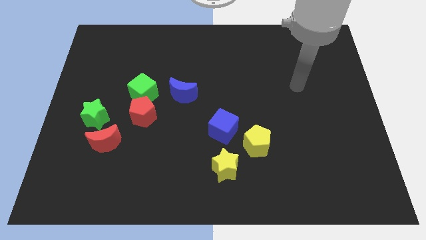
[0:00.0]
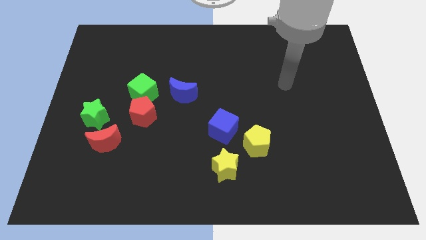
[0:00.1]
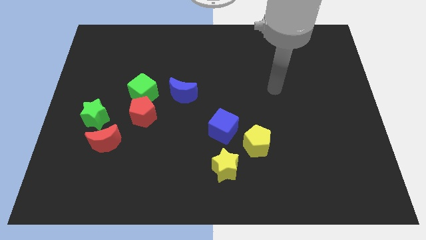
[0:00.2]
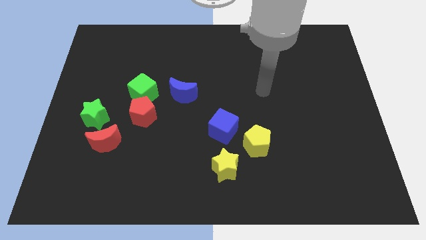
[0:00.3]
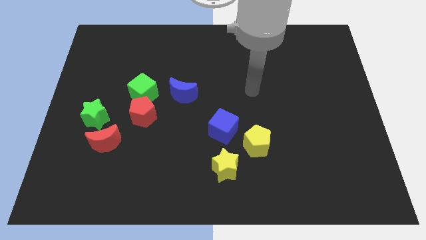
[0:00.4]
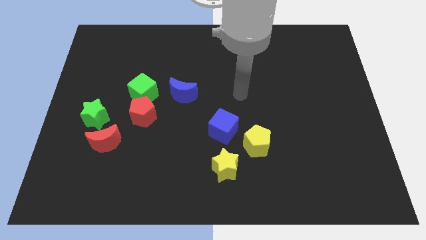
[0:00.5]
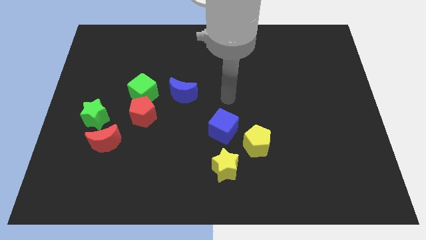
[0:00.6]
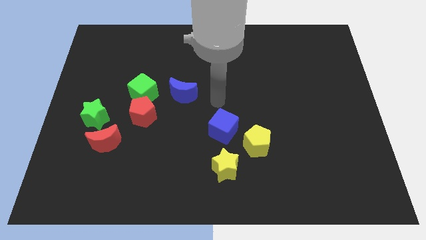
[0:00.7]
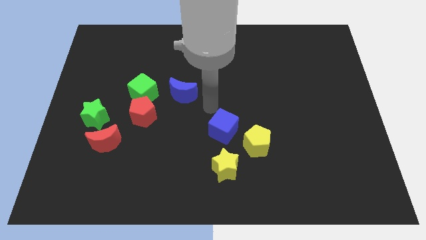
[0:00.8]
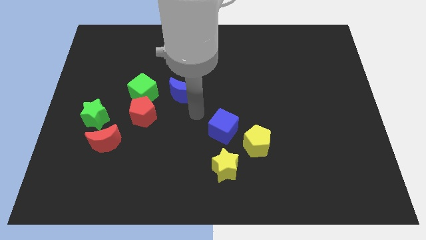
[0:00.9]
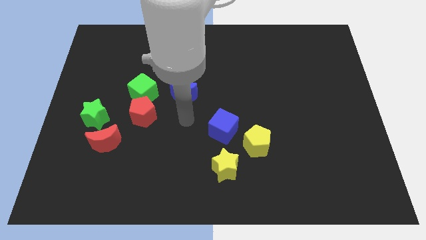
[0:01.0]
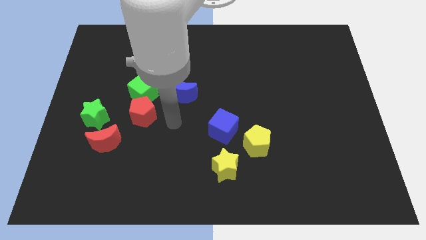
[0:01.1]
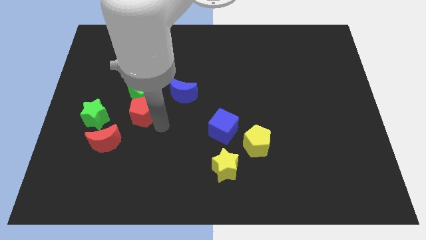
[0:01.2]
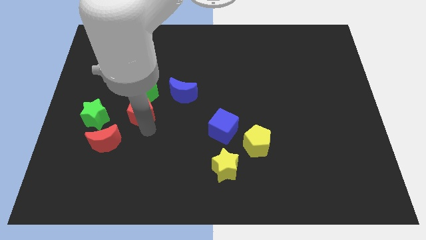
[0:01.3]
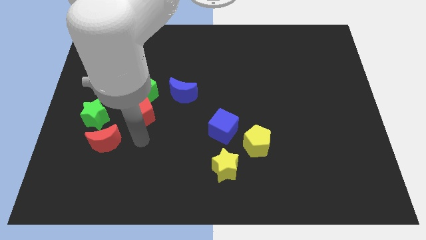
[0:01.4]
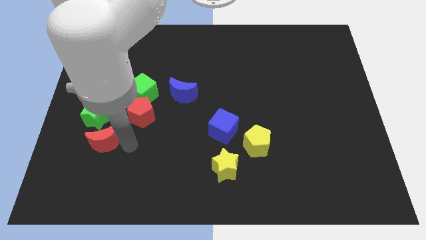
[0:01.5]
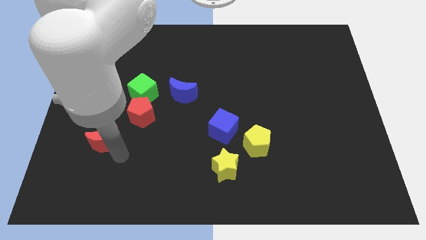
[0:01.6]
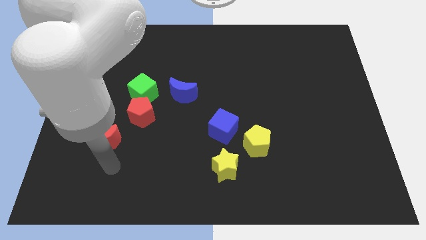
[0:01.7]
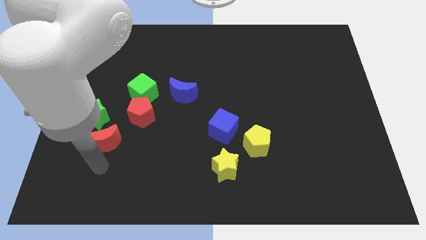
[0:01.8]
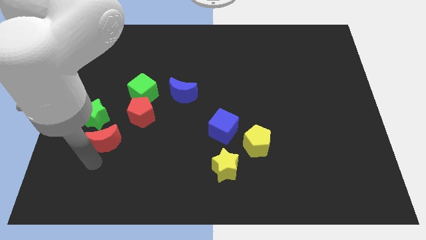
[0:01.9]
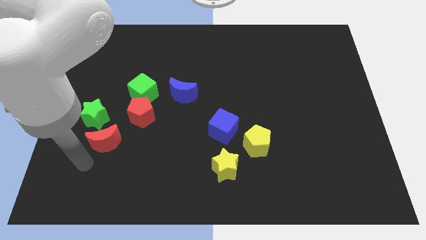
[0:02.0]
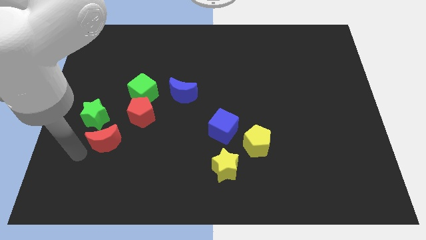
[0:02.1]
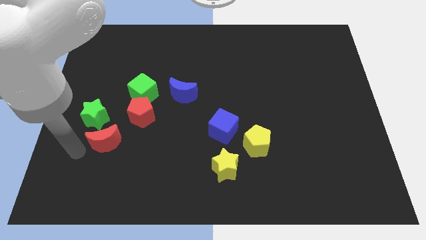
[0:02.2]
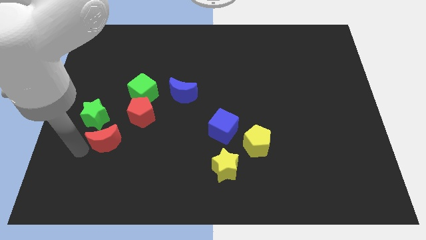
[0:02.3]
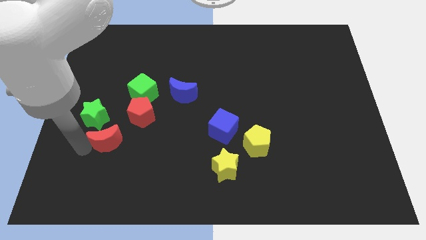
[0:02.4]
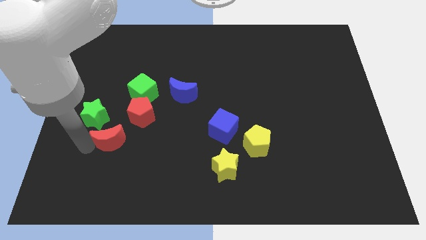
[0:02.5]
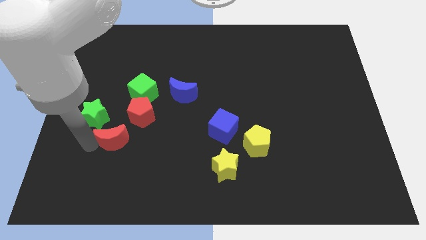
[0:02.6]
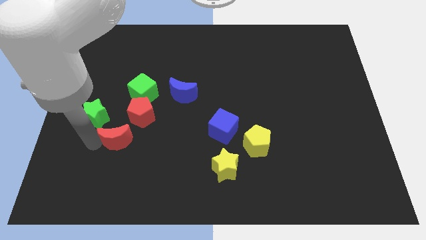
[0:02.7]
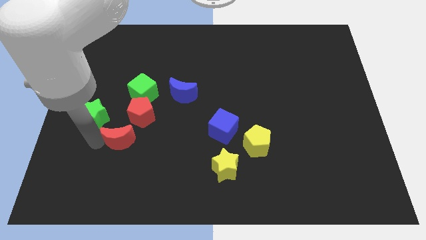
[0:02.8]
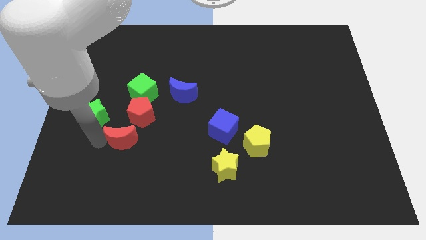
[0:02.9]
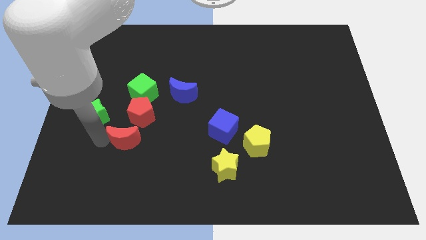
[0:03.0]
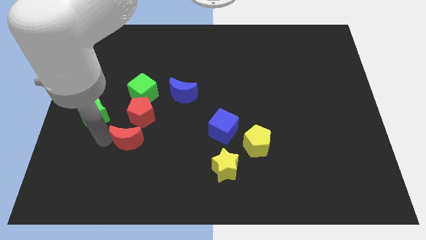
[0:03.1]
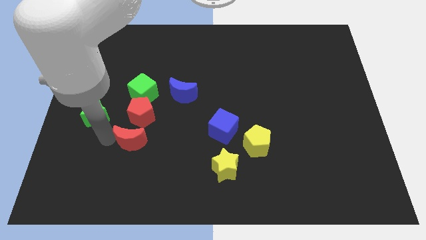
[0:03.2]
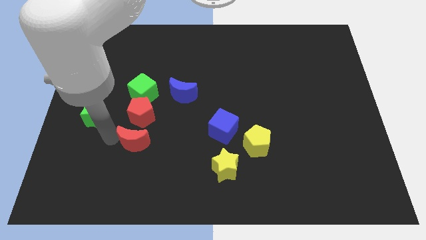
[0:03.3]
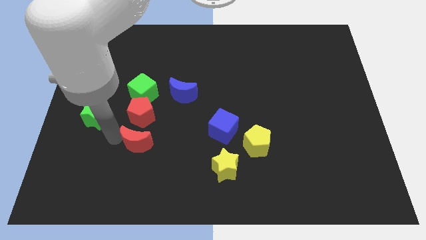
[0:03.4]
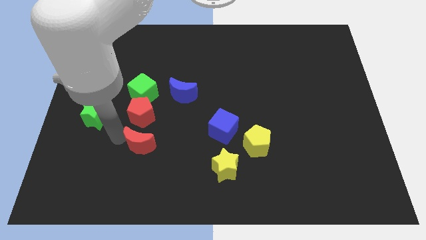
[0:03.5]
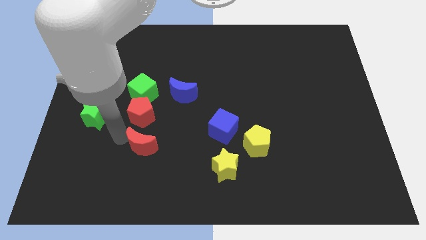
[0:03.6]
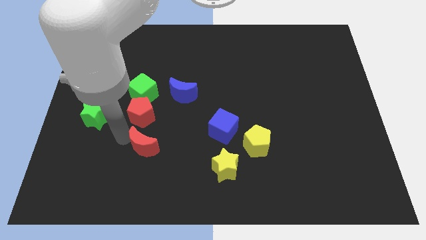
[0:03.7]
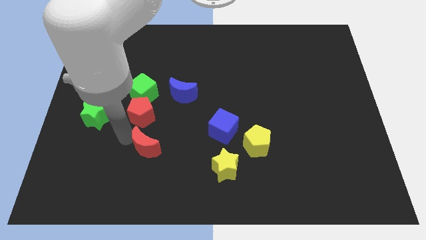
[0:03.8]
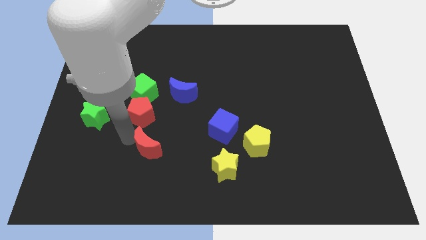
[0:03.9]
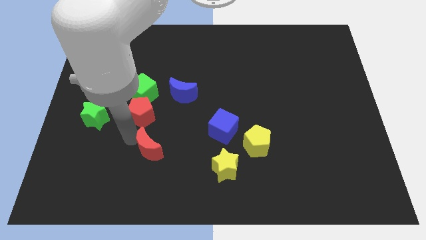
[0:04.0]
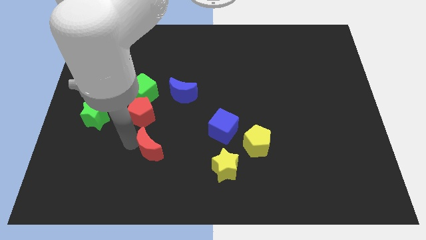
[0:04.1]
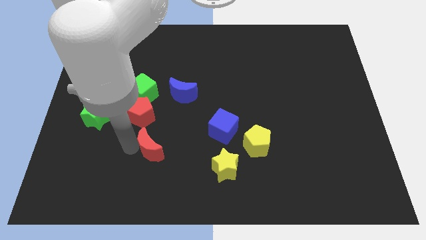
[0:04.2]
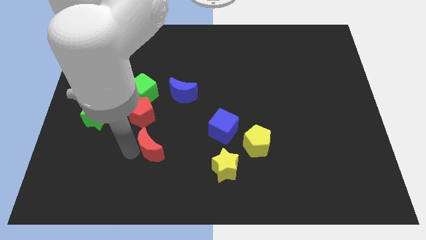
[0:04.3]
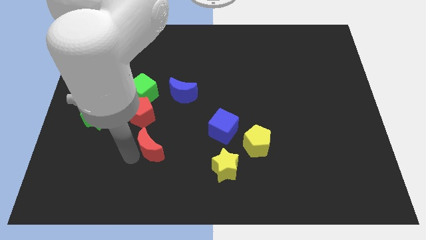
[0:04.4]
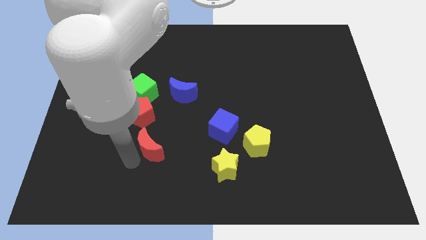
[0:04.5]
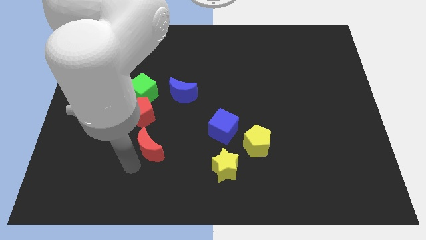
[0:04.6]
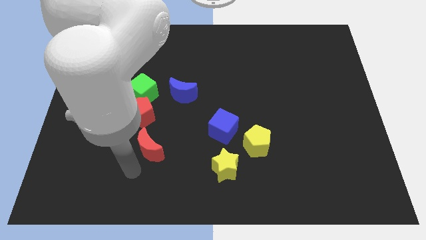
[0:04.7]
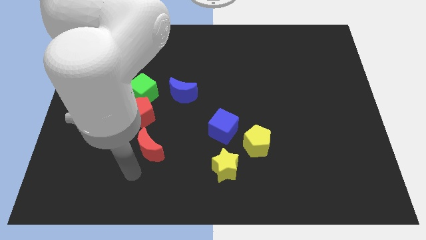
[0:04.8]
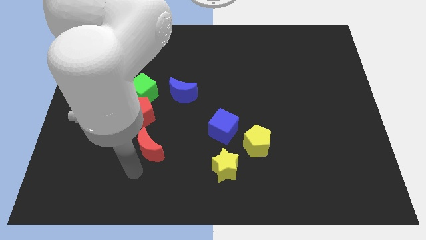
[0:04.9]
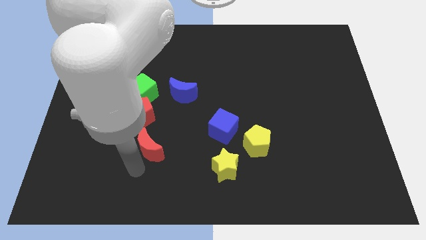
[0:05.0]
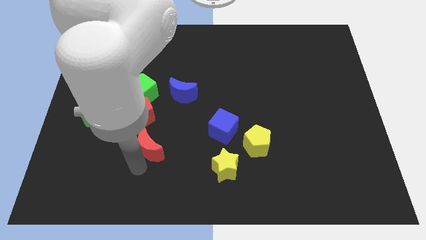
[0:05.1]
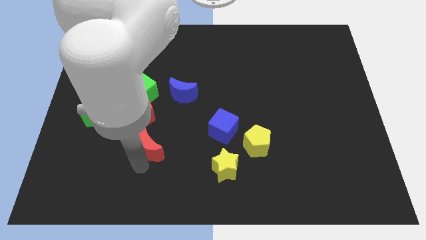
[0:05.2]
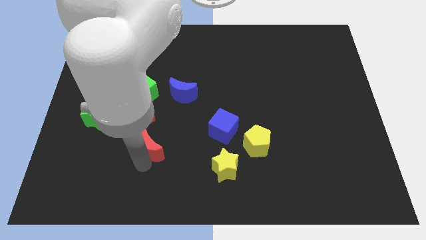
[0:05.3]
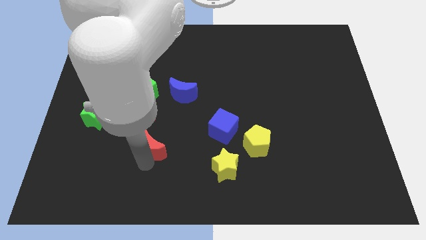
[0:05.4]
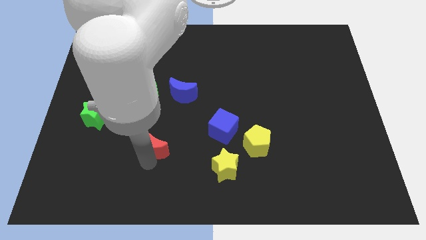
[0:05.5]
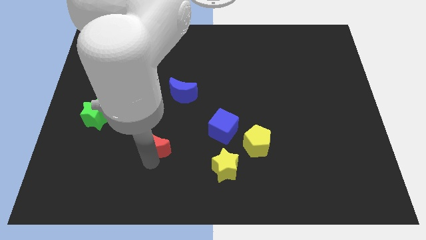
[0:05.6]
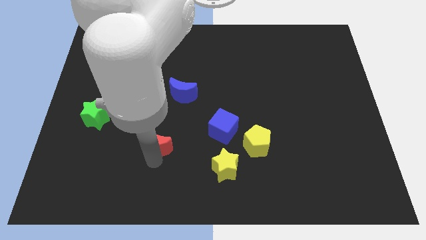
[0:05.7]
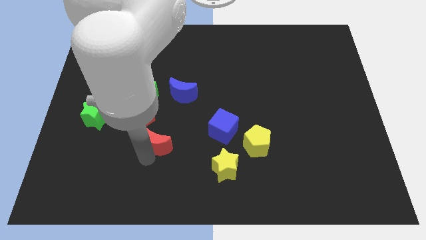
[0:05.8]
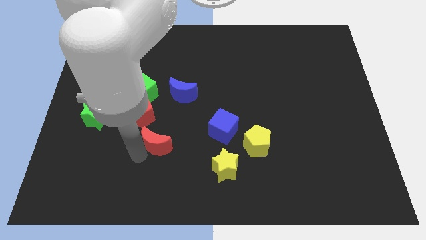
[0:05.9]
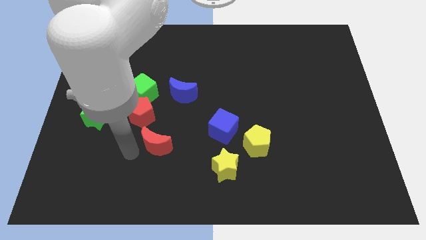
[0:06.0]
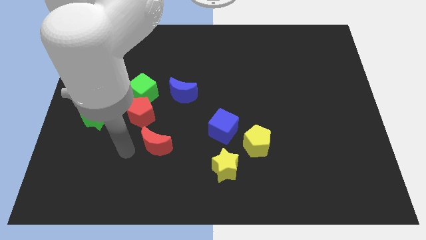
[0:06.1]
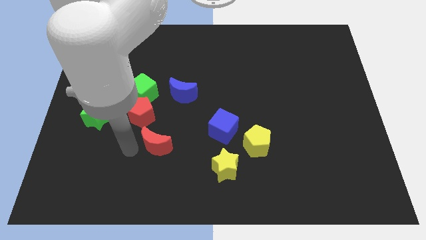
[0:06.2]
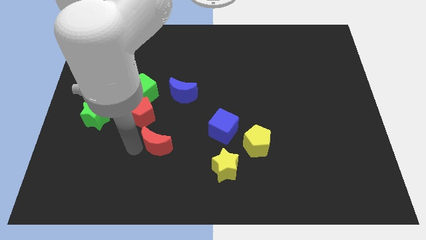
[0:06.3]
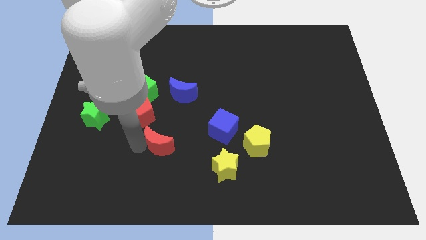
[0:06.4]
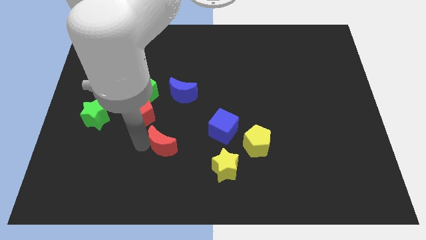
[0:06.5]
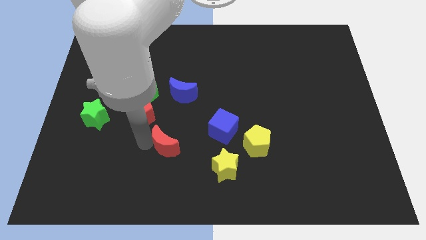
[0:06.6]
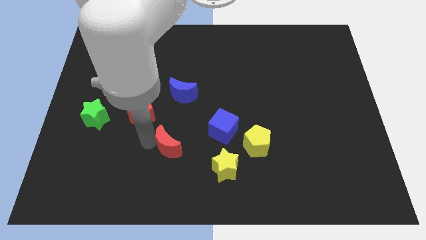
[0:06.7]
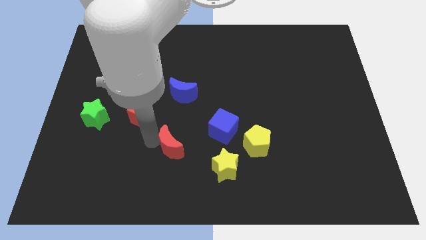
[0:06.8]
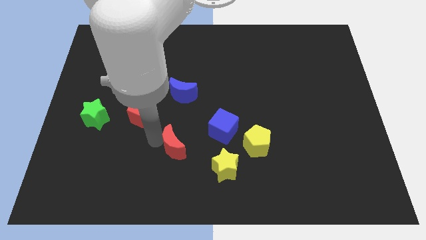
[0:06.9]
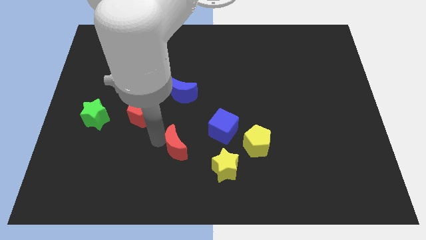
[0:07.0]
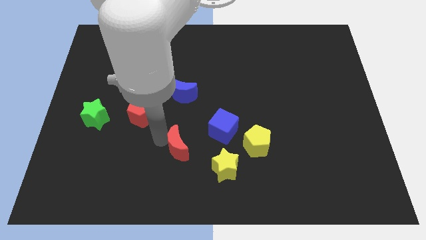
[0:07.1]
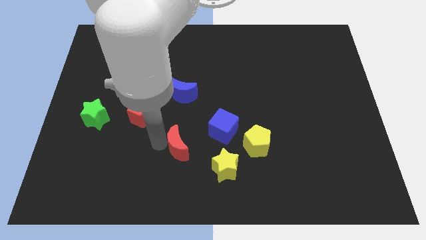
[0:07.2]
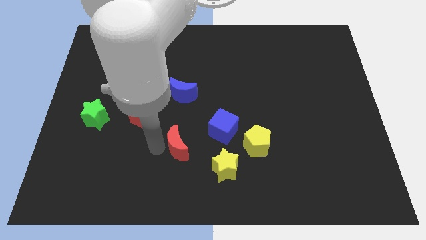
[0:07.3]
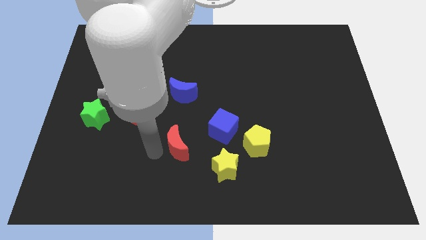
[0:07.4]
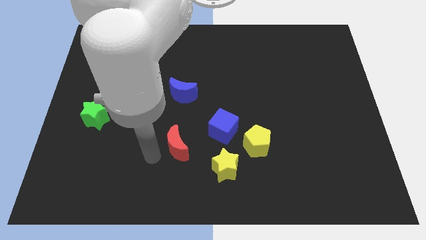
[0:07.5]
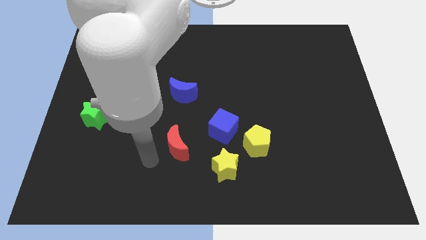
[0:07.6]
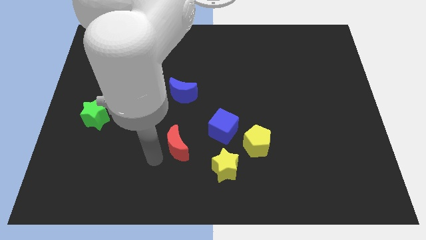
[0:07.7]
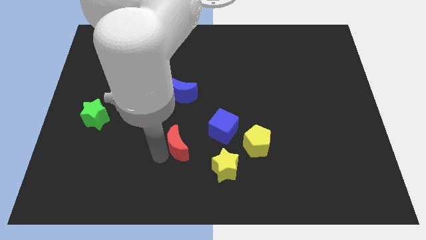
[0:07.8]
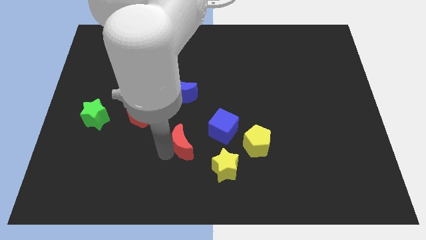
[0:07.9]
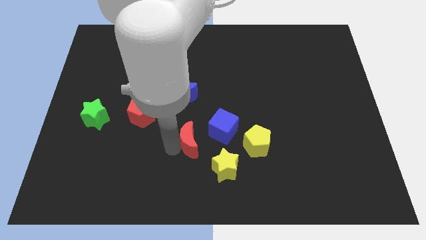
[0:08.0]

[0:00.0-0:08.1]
move the red moon to the left of the yellow pentagon
